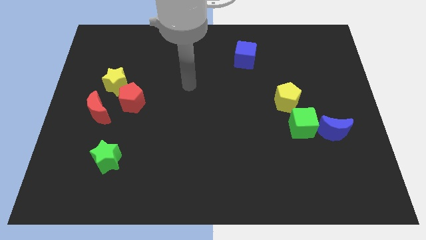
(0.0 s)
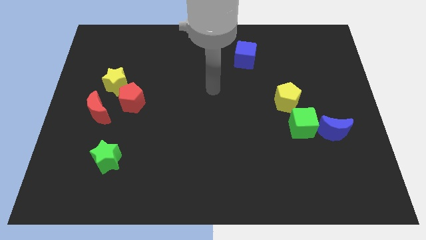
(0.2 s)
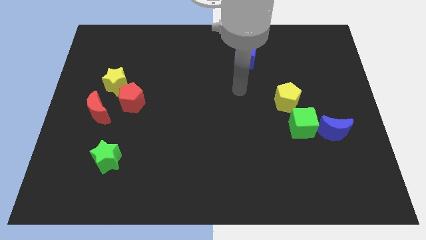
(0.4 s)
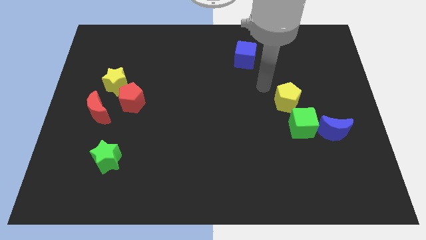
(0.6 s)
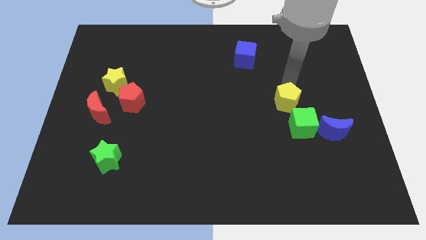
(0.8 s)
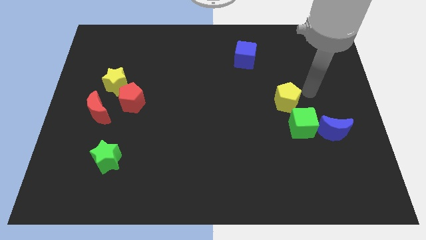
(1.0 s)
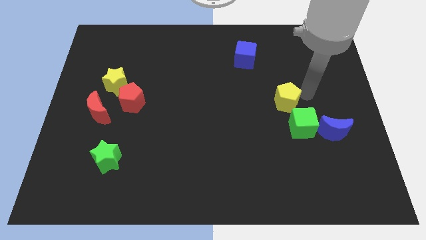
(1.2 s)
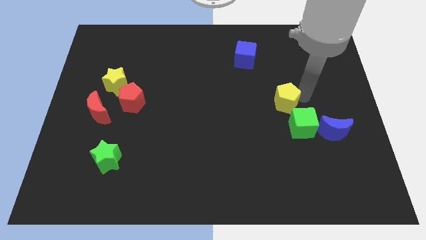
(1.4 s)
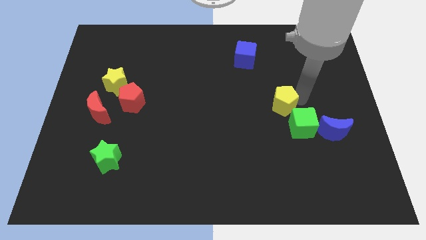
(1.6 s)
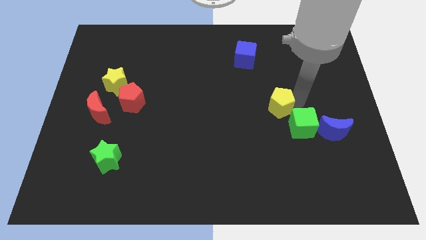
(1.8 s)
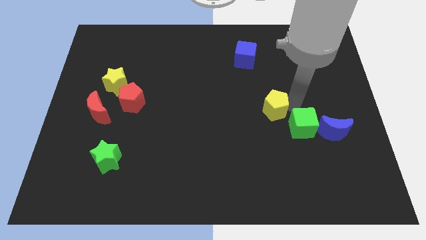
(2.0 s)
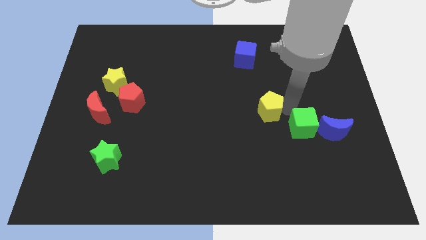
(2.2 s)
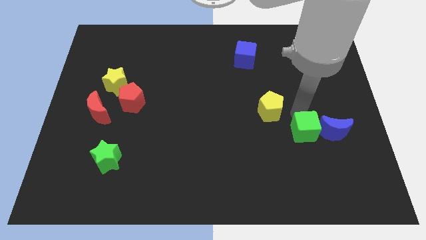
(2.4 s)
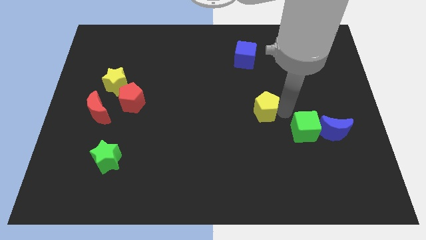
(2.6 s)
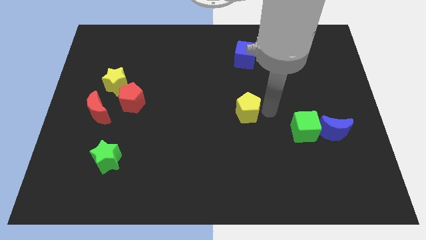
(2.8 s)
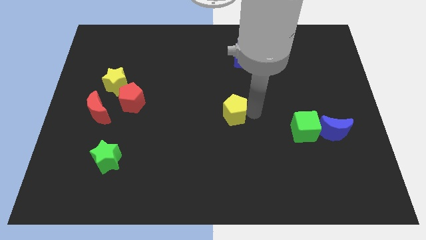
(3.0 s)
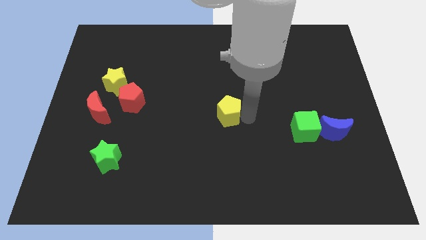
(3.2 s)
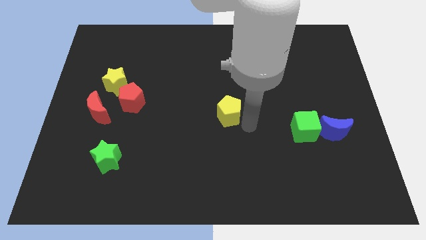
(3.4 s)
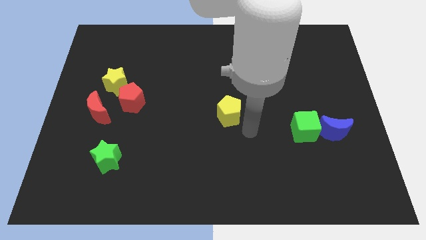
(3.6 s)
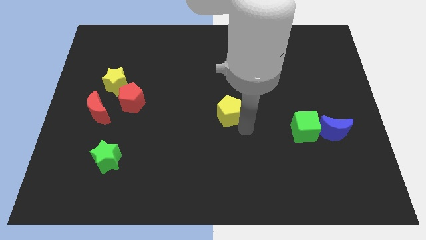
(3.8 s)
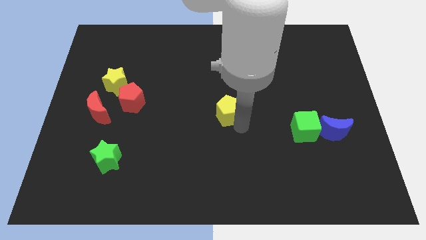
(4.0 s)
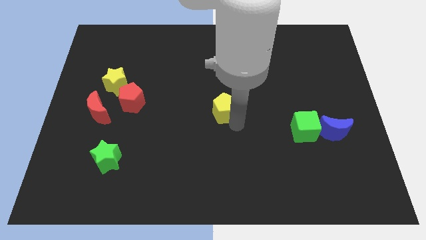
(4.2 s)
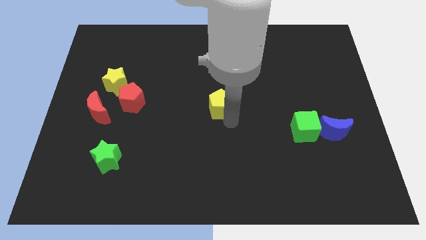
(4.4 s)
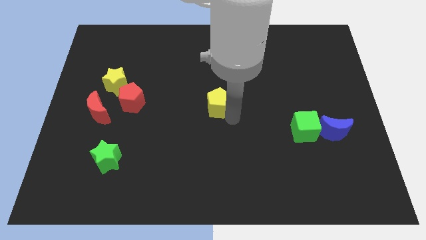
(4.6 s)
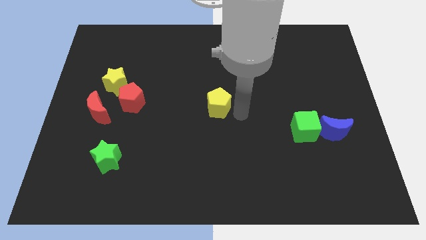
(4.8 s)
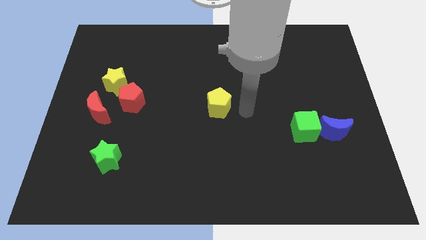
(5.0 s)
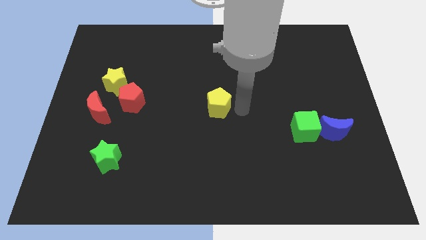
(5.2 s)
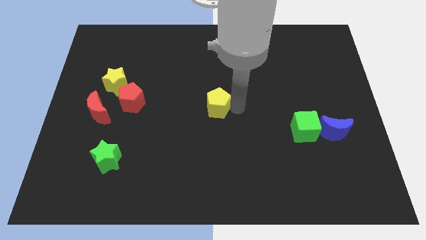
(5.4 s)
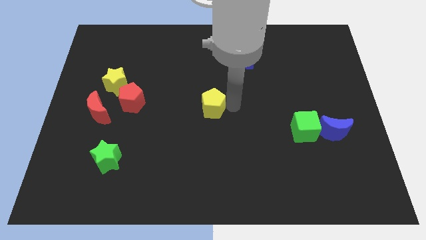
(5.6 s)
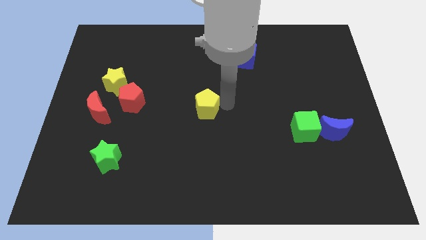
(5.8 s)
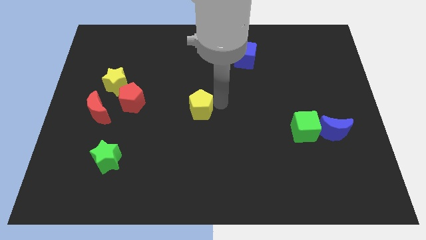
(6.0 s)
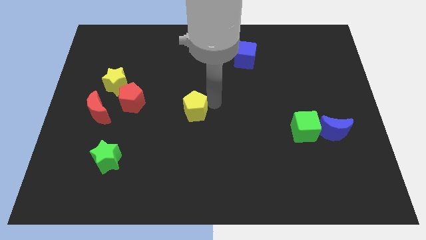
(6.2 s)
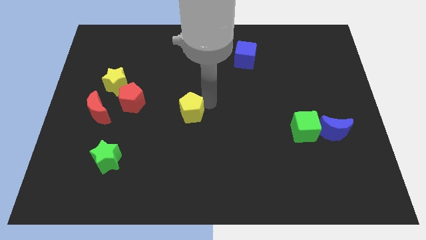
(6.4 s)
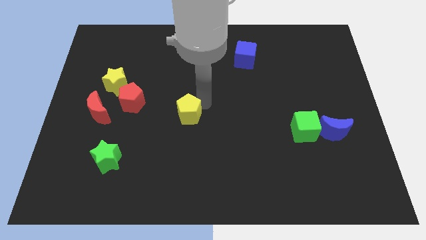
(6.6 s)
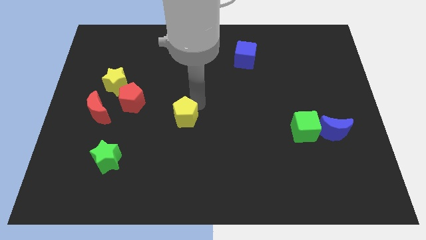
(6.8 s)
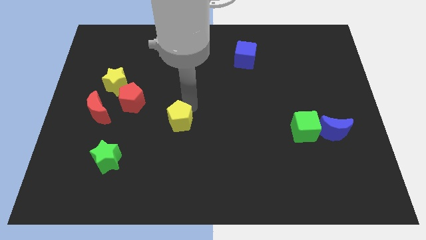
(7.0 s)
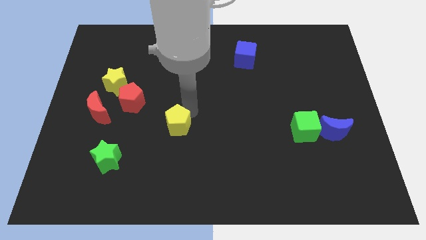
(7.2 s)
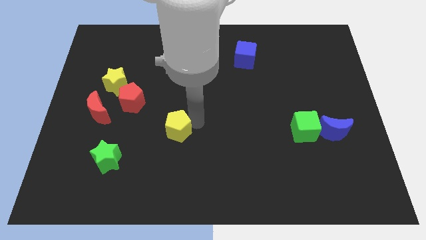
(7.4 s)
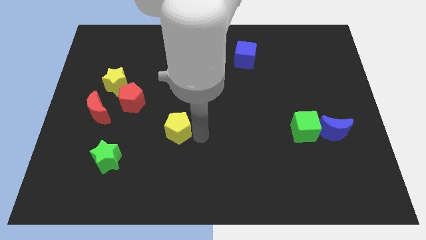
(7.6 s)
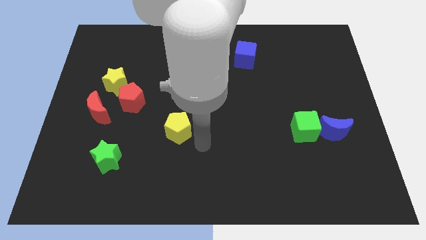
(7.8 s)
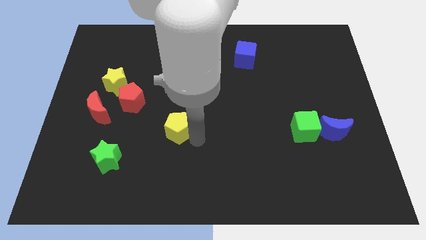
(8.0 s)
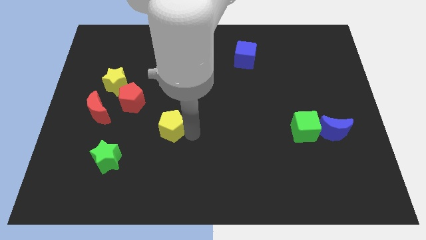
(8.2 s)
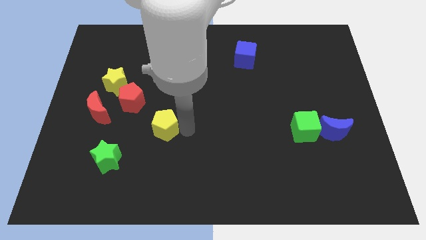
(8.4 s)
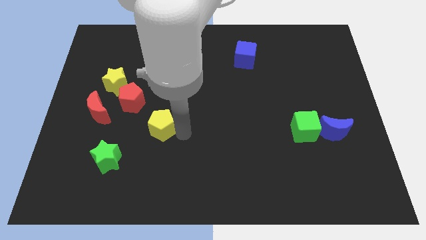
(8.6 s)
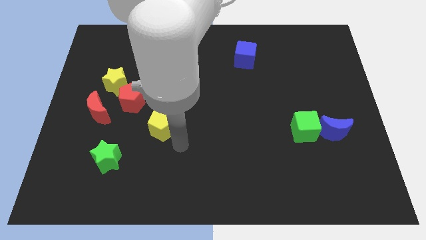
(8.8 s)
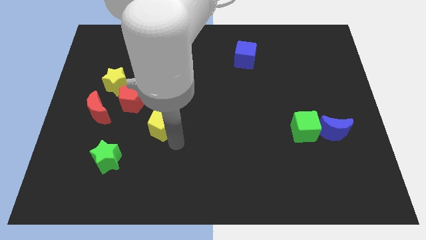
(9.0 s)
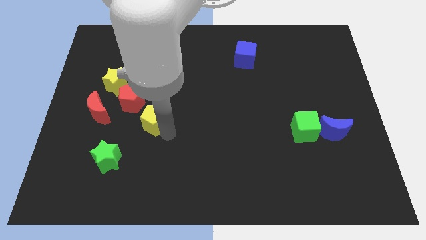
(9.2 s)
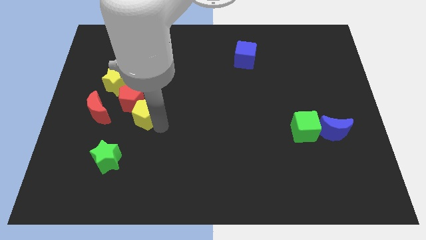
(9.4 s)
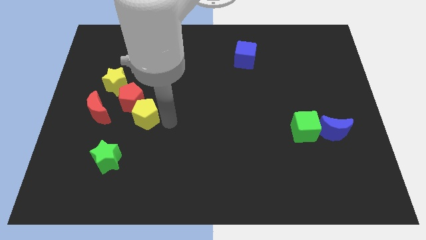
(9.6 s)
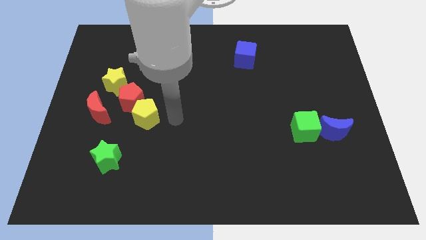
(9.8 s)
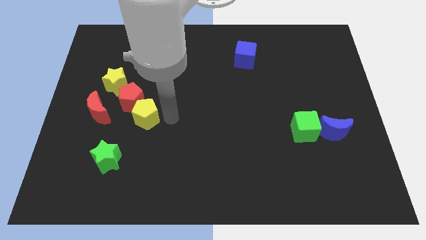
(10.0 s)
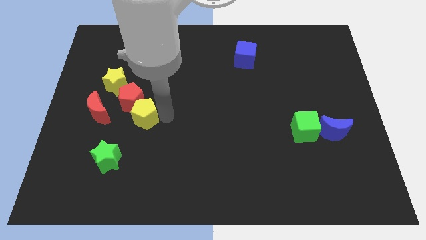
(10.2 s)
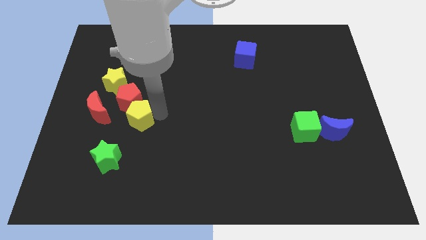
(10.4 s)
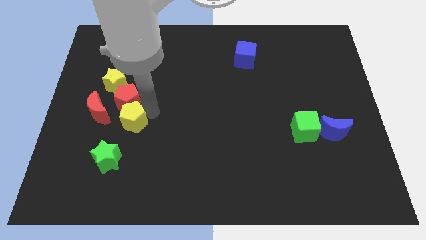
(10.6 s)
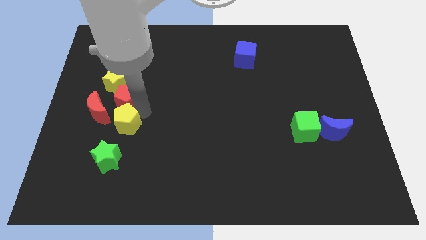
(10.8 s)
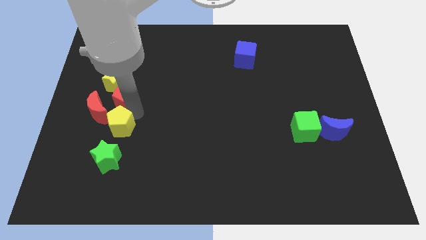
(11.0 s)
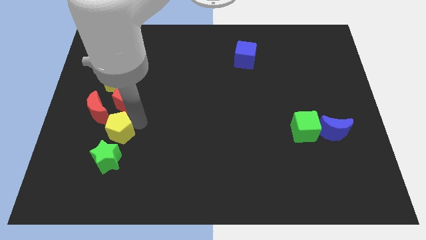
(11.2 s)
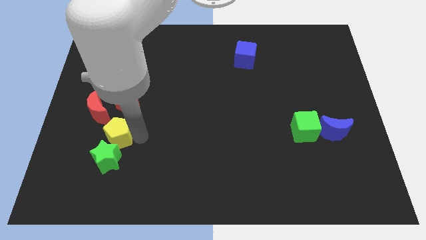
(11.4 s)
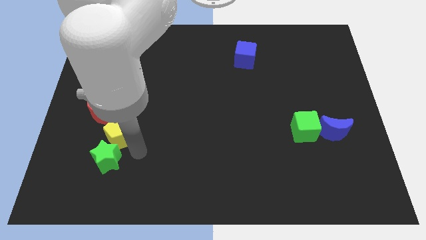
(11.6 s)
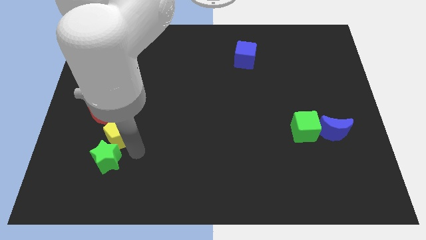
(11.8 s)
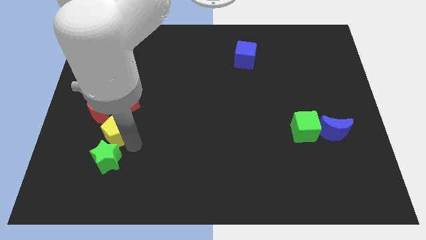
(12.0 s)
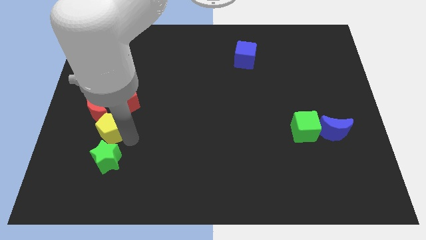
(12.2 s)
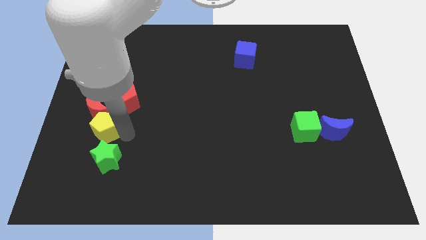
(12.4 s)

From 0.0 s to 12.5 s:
push the yellow pentagon to the red moon

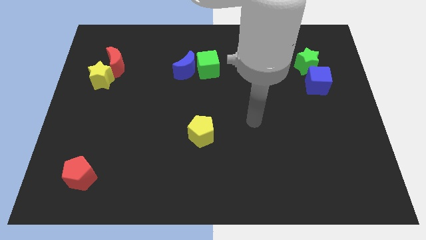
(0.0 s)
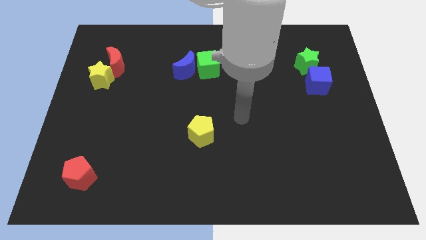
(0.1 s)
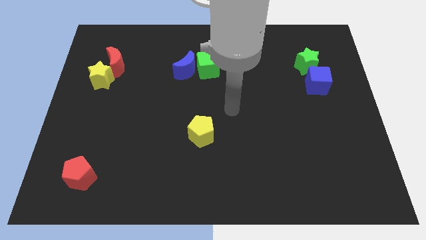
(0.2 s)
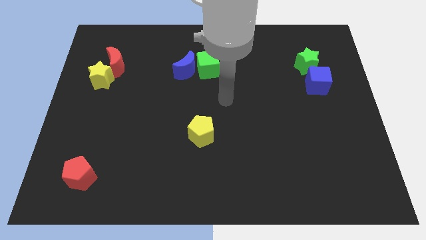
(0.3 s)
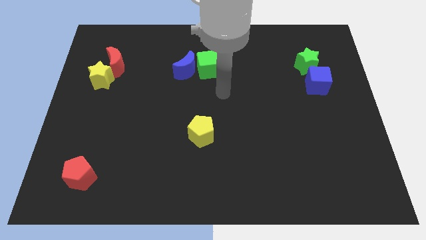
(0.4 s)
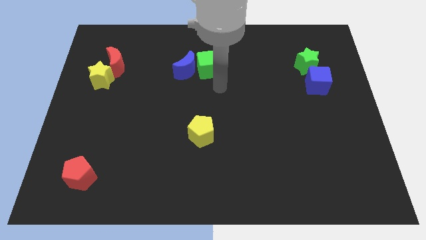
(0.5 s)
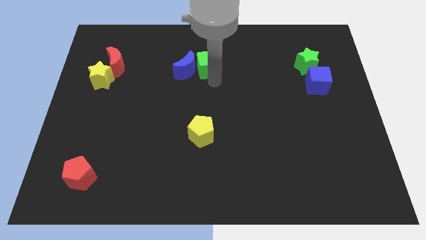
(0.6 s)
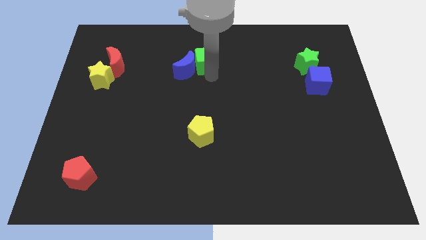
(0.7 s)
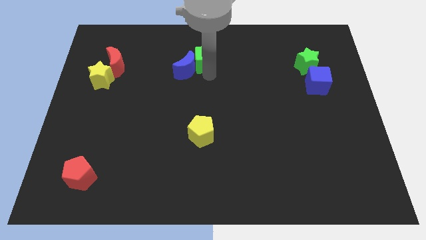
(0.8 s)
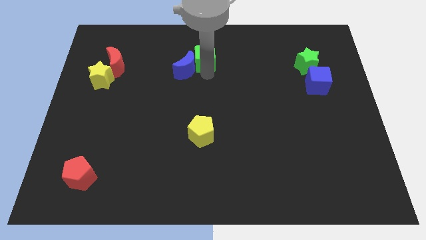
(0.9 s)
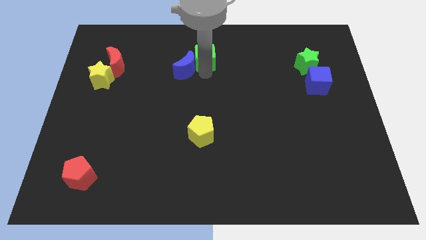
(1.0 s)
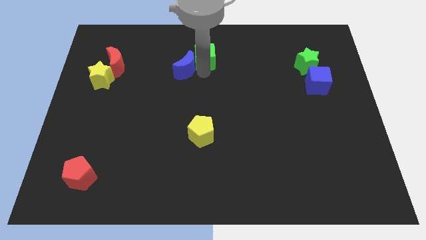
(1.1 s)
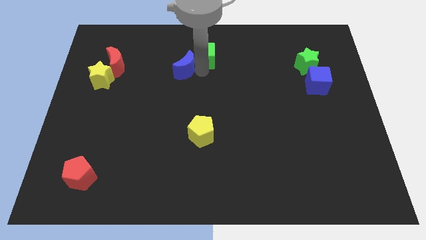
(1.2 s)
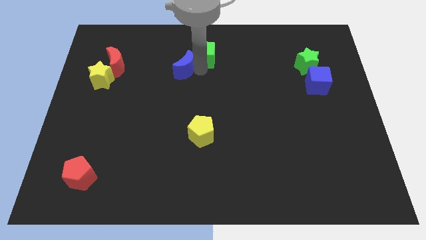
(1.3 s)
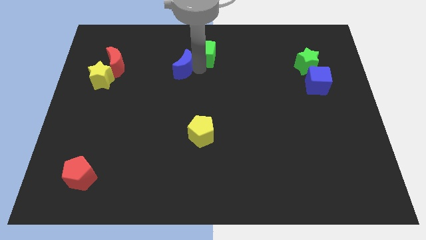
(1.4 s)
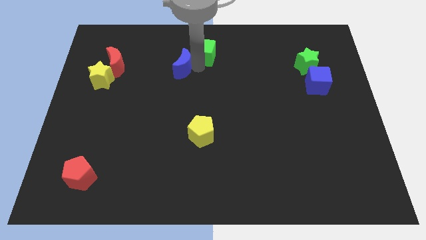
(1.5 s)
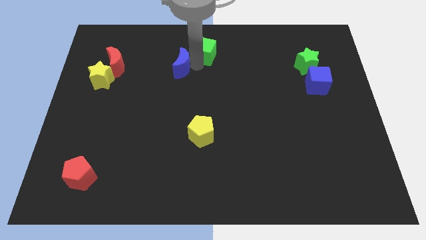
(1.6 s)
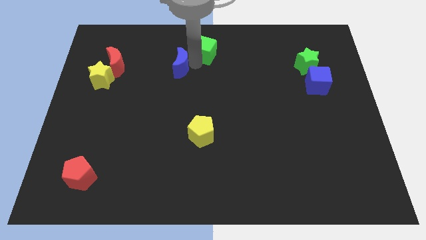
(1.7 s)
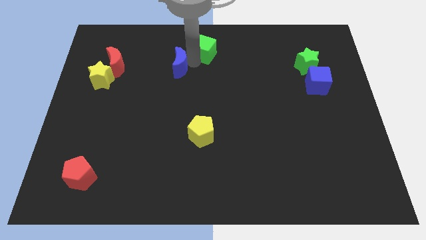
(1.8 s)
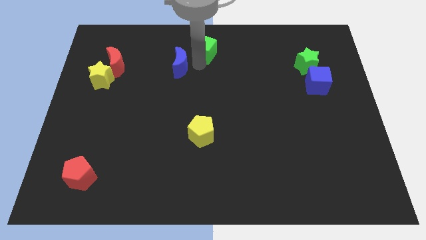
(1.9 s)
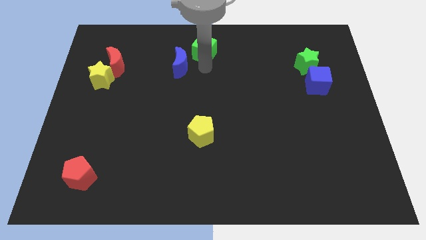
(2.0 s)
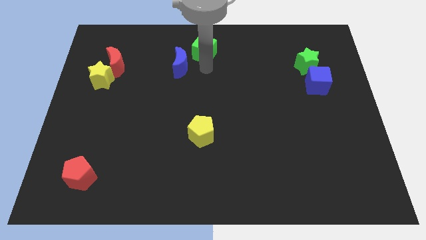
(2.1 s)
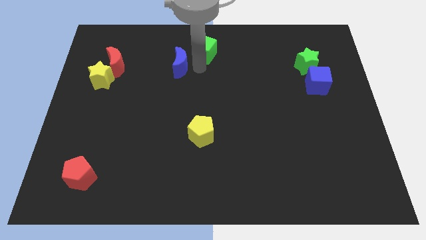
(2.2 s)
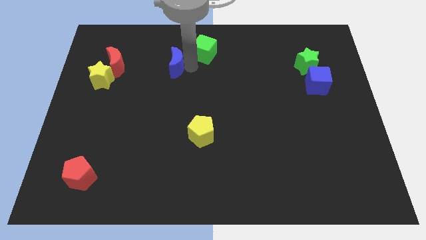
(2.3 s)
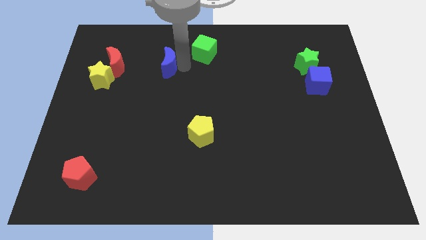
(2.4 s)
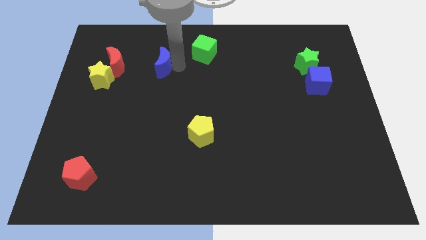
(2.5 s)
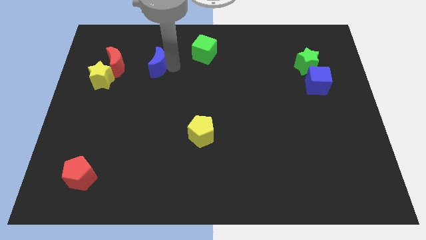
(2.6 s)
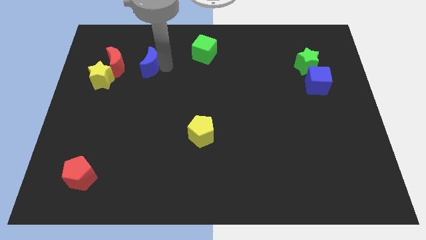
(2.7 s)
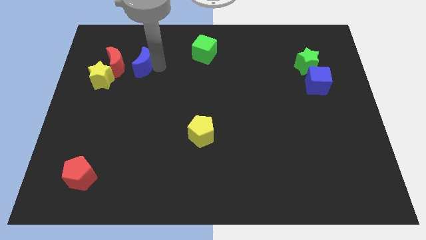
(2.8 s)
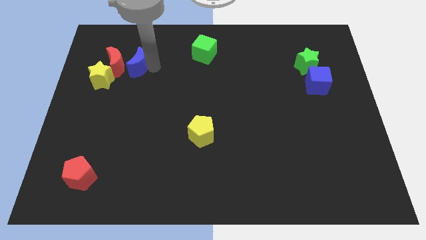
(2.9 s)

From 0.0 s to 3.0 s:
slide the blue moon to the red moon
